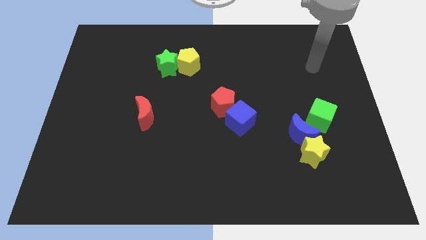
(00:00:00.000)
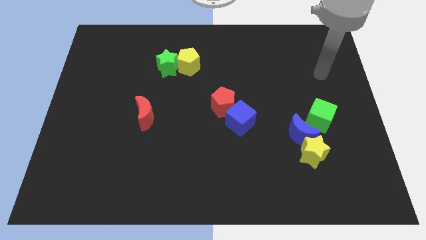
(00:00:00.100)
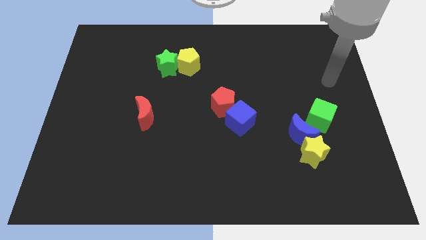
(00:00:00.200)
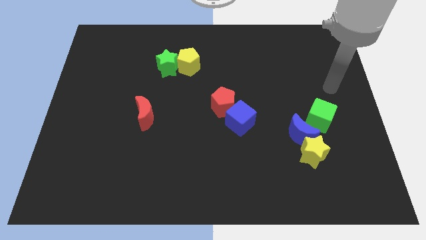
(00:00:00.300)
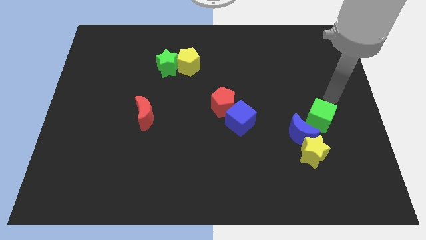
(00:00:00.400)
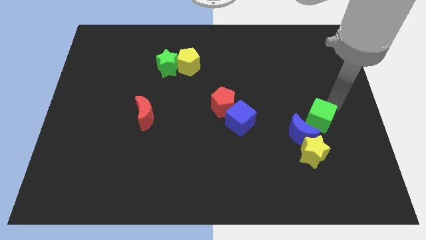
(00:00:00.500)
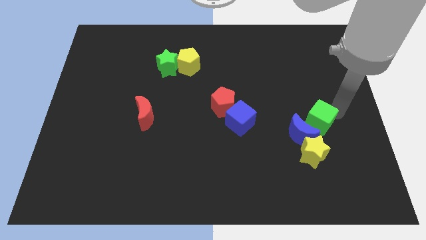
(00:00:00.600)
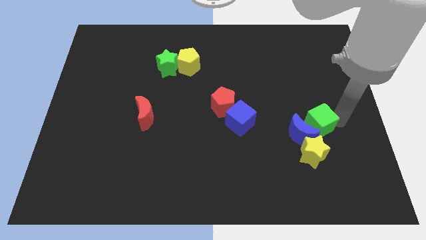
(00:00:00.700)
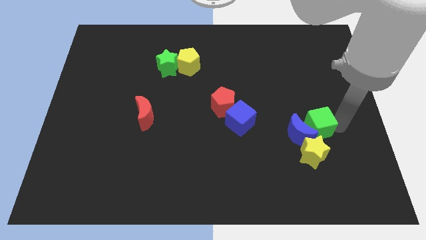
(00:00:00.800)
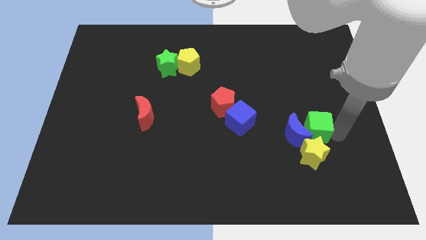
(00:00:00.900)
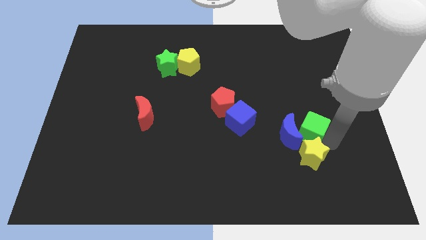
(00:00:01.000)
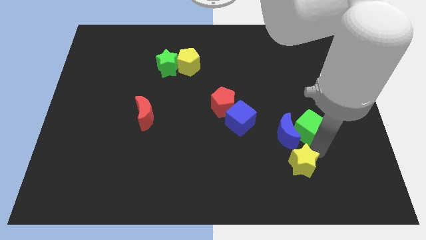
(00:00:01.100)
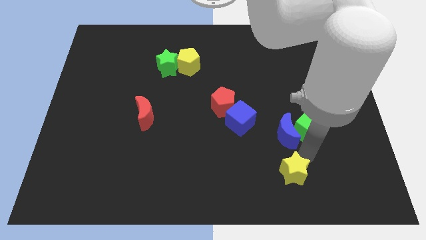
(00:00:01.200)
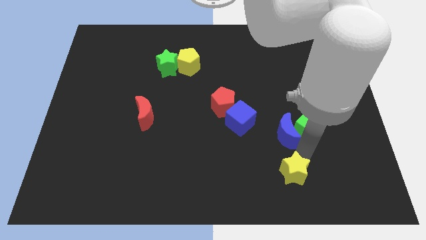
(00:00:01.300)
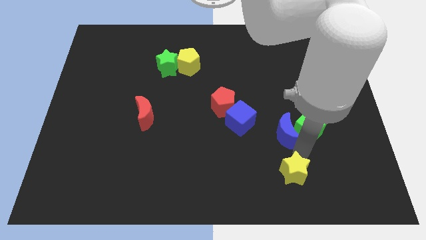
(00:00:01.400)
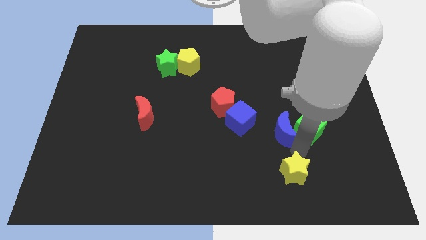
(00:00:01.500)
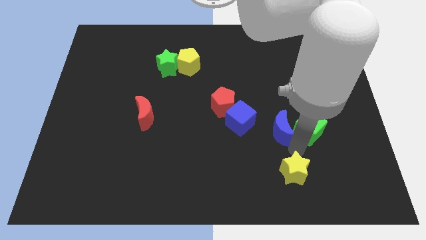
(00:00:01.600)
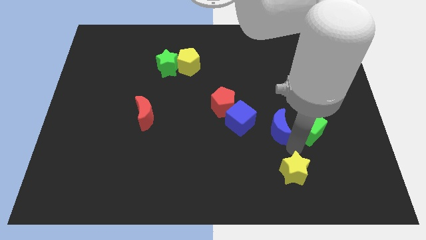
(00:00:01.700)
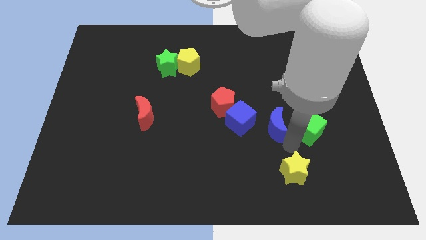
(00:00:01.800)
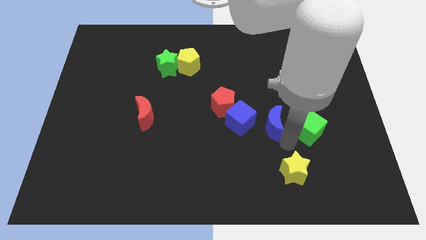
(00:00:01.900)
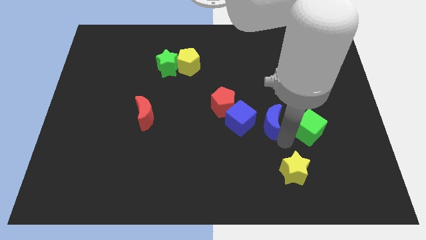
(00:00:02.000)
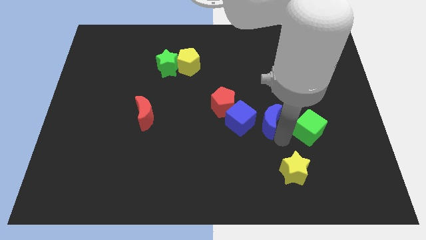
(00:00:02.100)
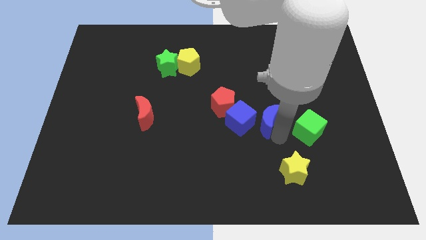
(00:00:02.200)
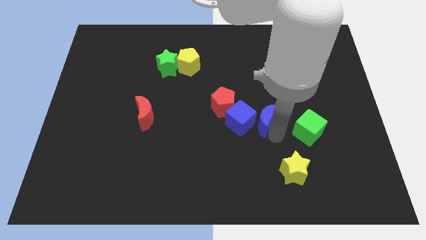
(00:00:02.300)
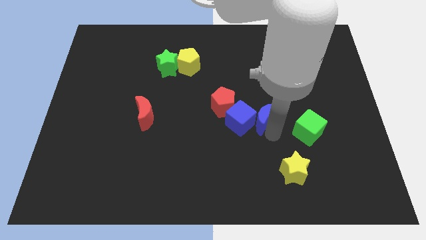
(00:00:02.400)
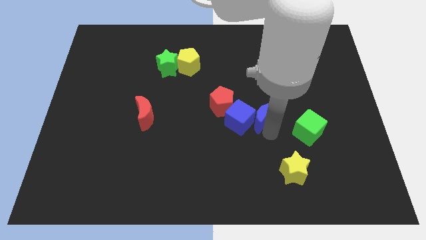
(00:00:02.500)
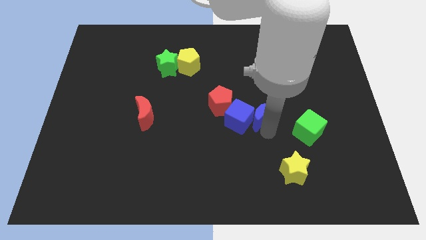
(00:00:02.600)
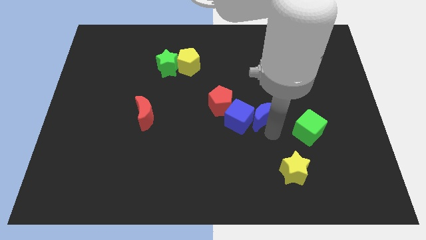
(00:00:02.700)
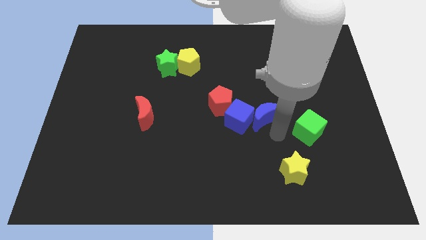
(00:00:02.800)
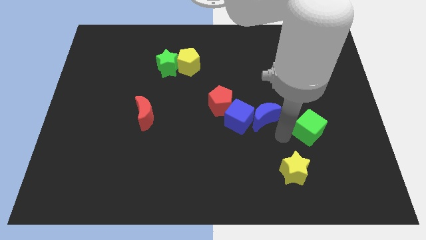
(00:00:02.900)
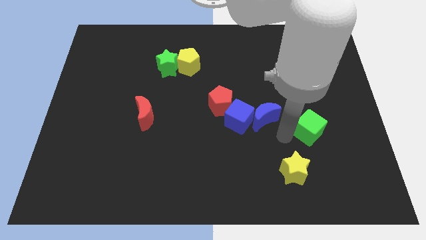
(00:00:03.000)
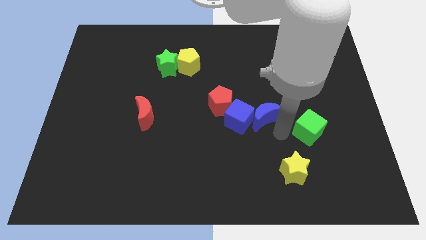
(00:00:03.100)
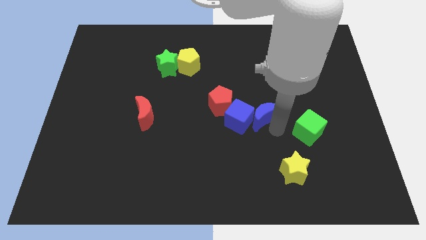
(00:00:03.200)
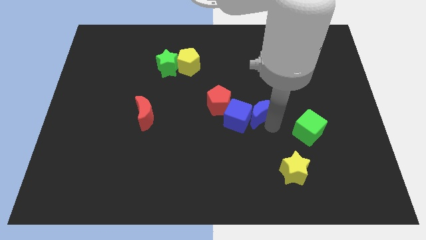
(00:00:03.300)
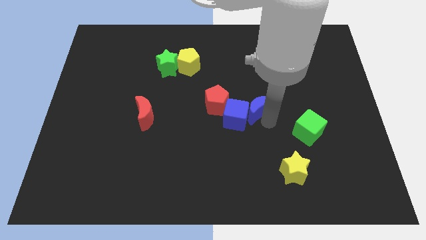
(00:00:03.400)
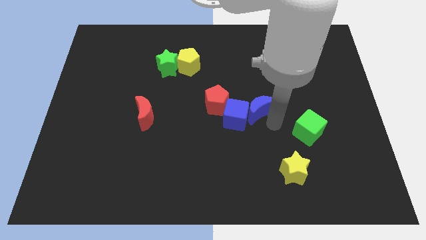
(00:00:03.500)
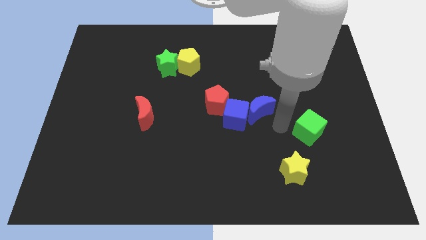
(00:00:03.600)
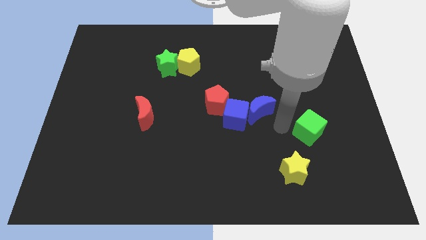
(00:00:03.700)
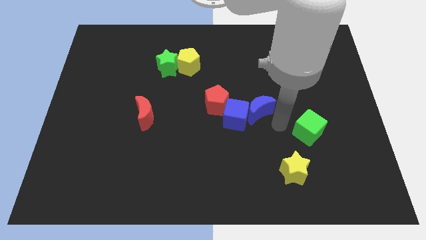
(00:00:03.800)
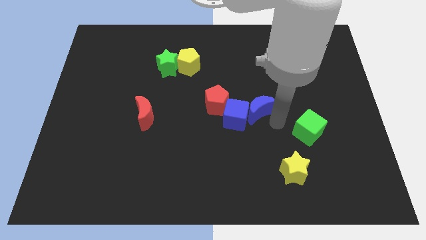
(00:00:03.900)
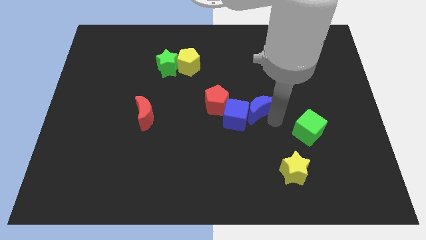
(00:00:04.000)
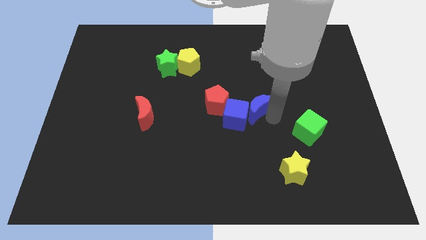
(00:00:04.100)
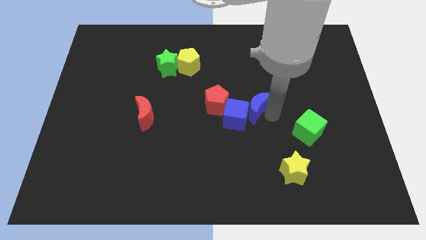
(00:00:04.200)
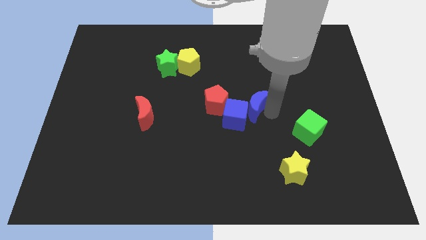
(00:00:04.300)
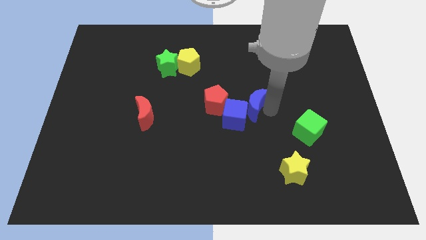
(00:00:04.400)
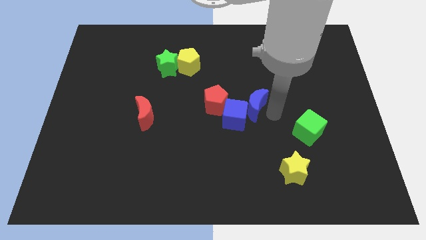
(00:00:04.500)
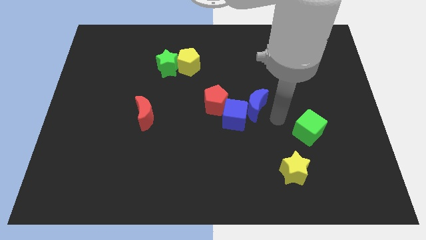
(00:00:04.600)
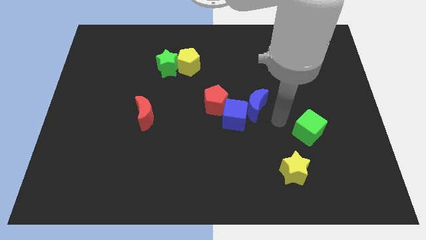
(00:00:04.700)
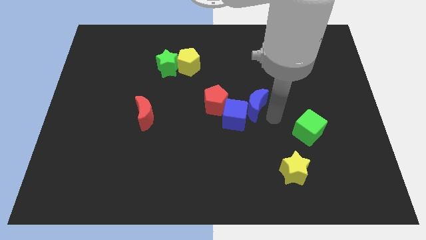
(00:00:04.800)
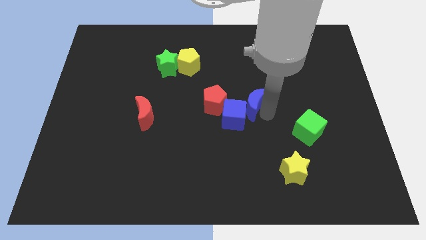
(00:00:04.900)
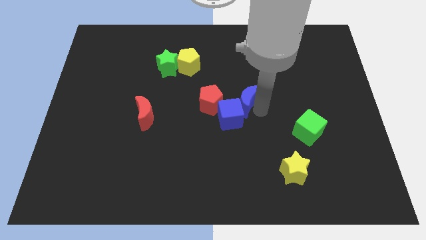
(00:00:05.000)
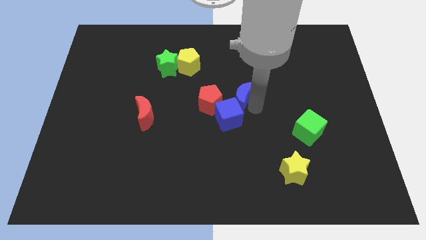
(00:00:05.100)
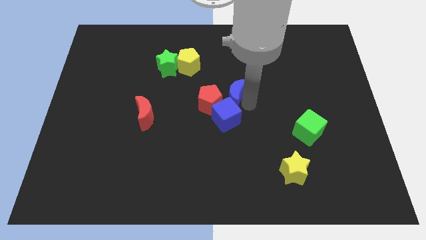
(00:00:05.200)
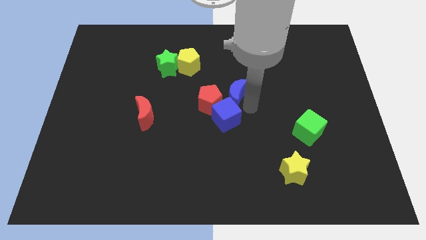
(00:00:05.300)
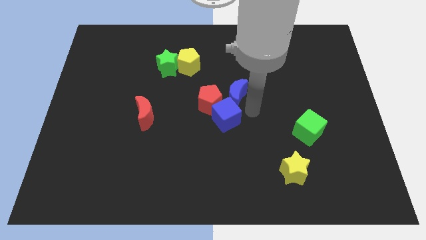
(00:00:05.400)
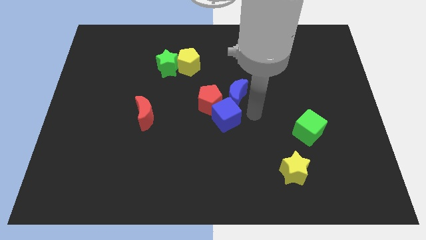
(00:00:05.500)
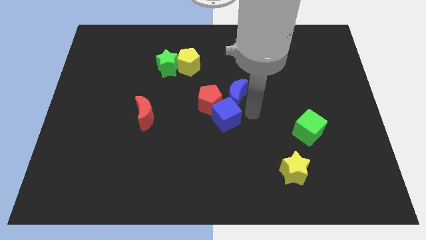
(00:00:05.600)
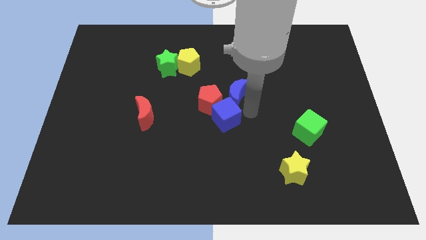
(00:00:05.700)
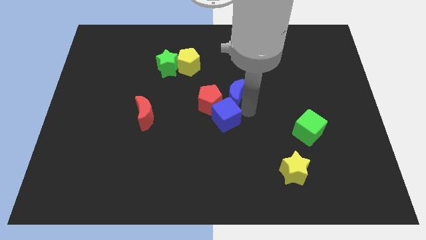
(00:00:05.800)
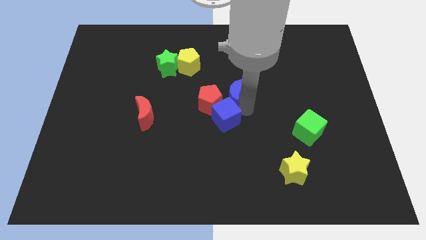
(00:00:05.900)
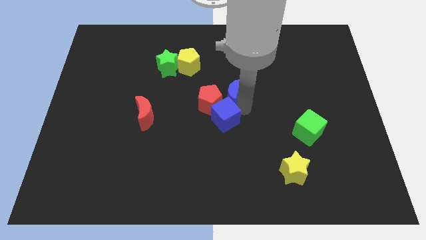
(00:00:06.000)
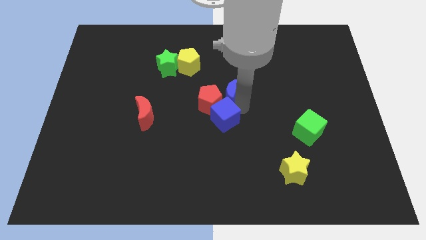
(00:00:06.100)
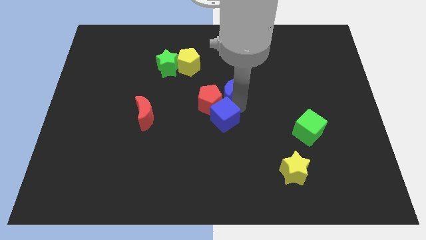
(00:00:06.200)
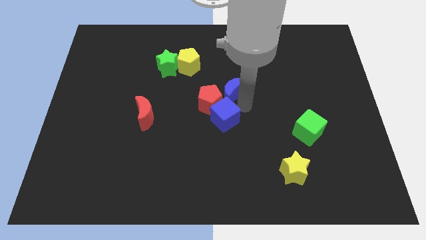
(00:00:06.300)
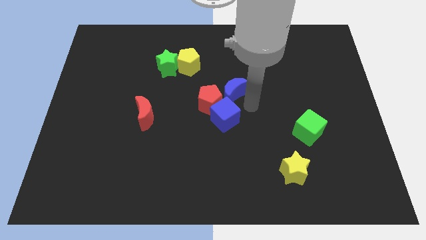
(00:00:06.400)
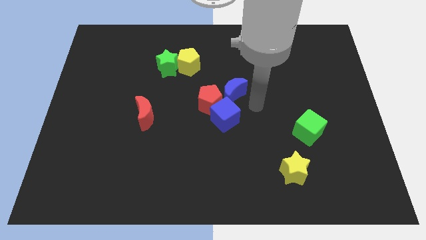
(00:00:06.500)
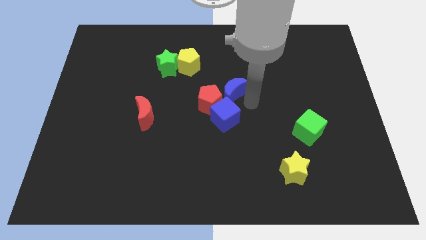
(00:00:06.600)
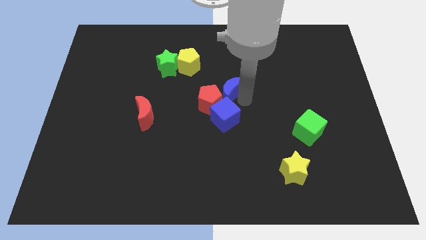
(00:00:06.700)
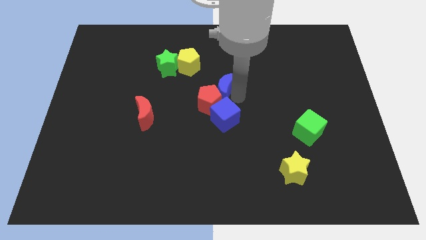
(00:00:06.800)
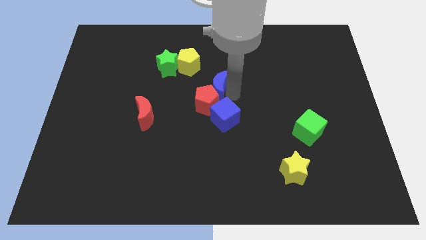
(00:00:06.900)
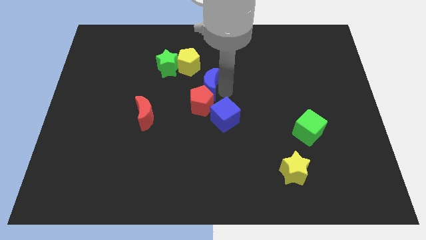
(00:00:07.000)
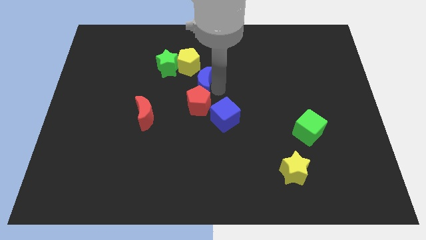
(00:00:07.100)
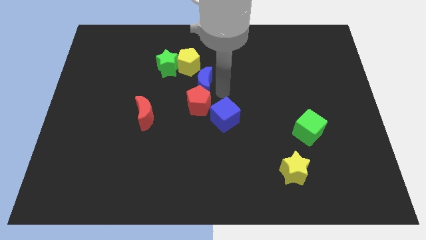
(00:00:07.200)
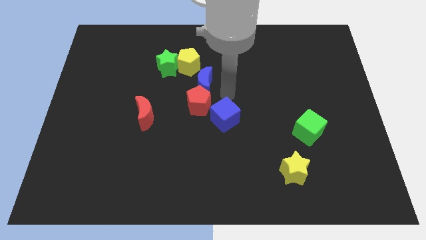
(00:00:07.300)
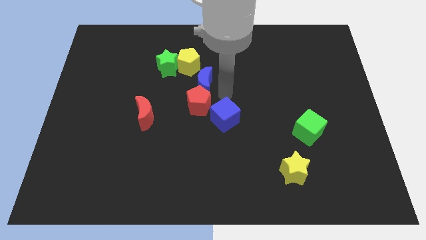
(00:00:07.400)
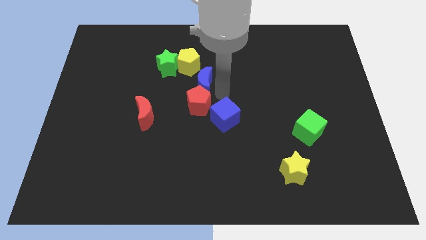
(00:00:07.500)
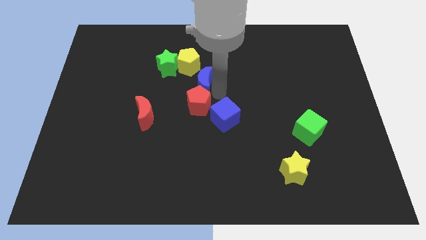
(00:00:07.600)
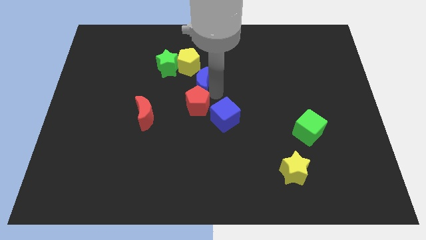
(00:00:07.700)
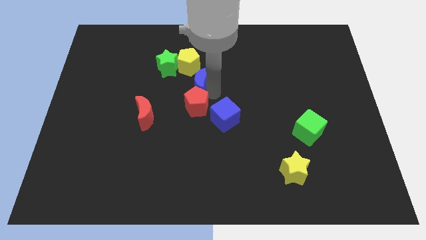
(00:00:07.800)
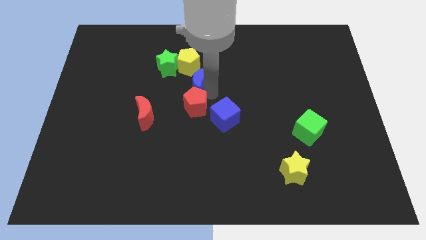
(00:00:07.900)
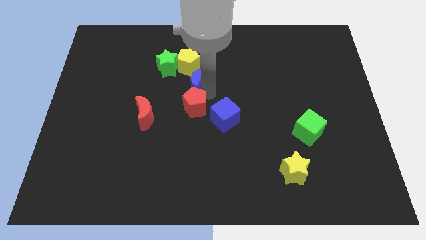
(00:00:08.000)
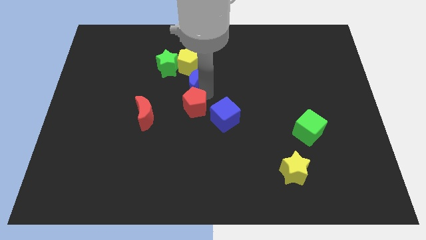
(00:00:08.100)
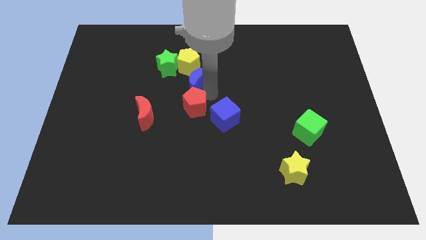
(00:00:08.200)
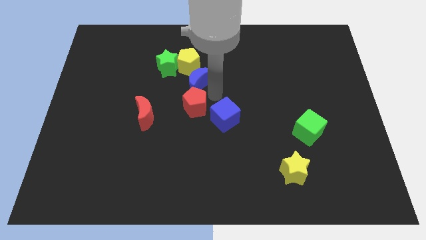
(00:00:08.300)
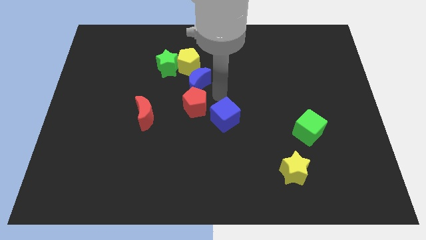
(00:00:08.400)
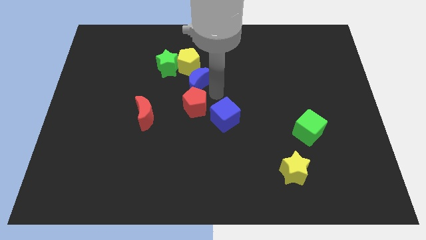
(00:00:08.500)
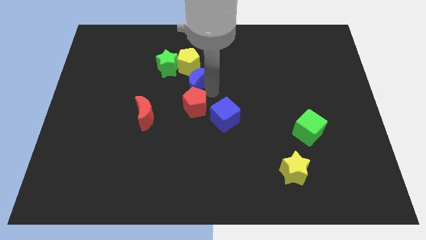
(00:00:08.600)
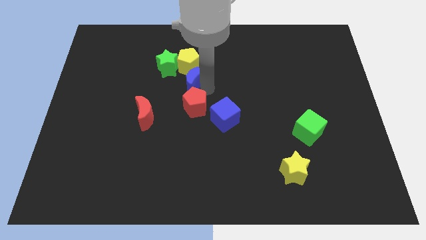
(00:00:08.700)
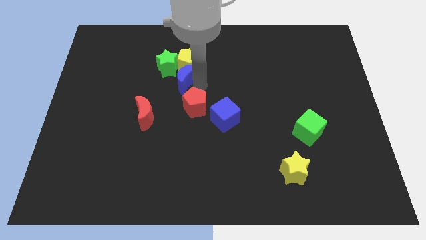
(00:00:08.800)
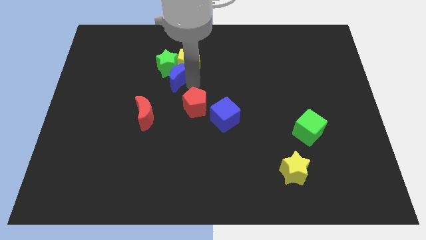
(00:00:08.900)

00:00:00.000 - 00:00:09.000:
push the blue moon towards the green star
